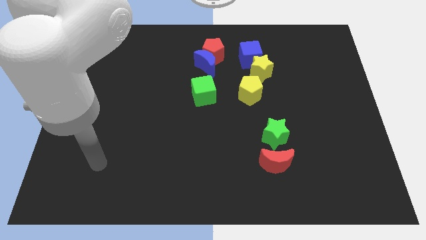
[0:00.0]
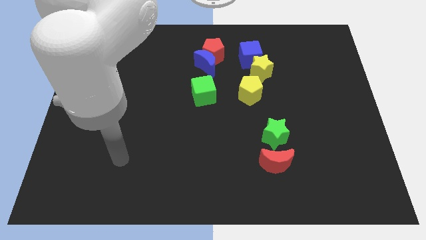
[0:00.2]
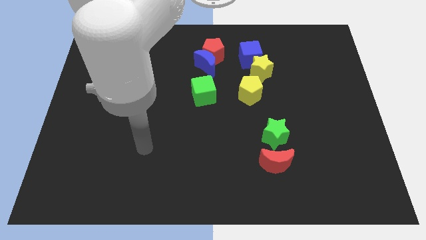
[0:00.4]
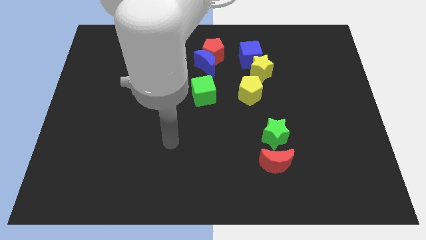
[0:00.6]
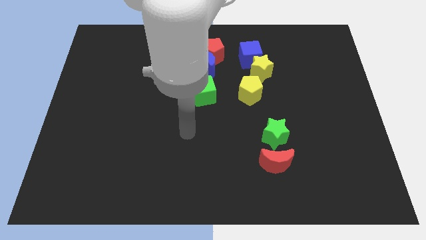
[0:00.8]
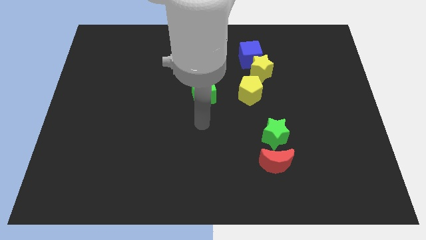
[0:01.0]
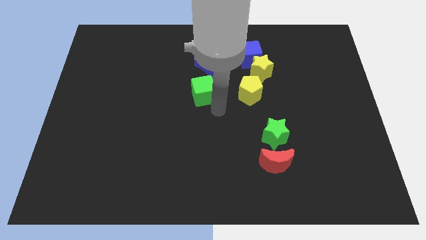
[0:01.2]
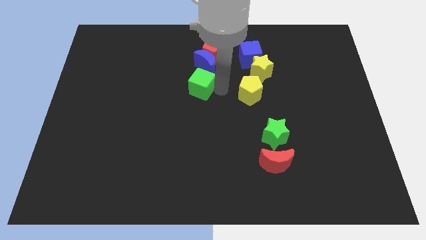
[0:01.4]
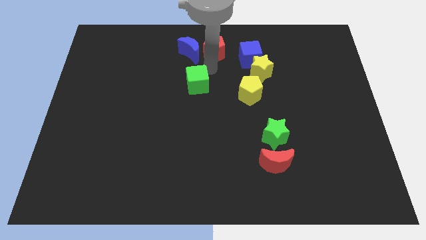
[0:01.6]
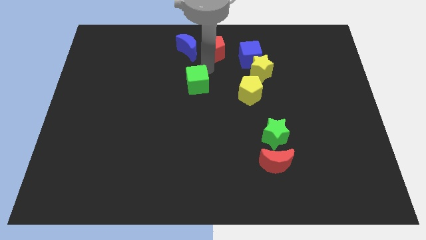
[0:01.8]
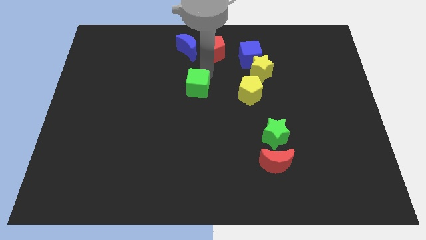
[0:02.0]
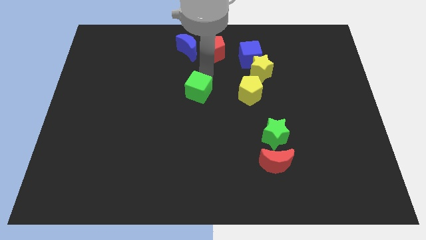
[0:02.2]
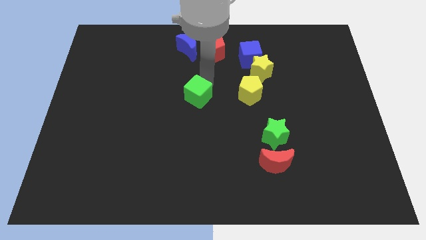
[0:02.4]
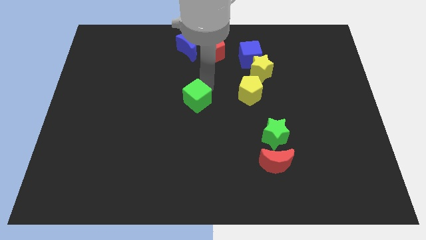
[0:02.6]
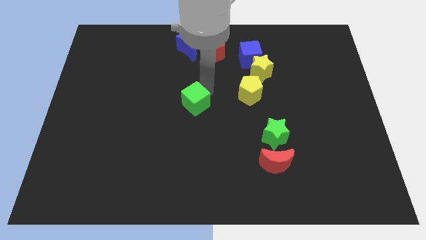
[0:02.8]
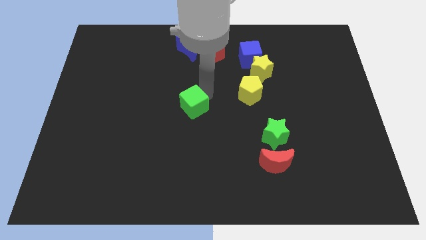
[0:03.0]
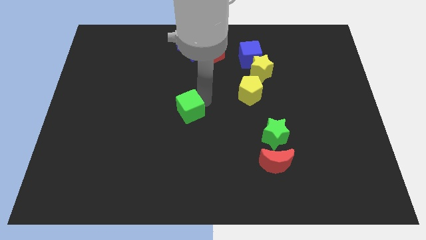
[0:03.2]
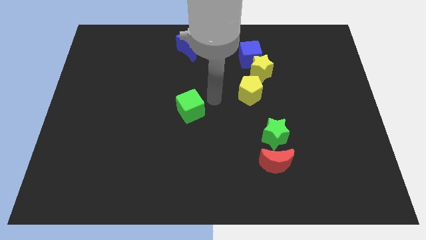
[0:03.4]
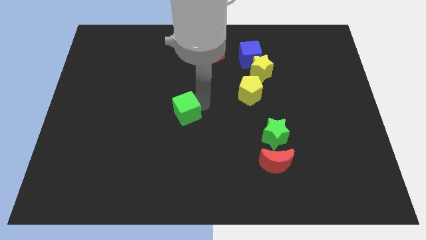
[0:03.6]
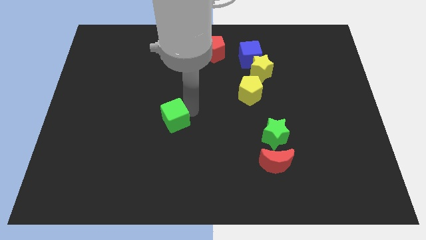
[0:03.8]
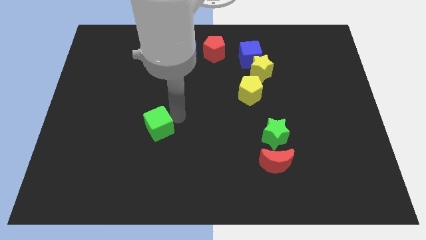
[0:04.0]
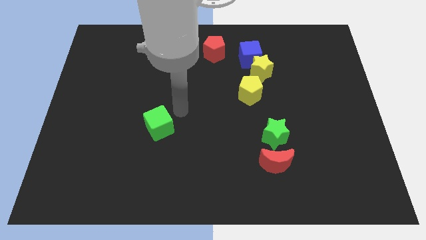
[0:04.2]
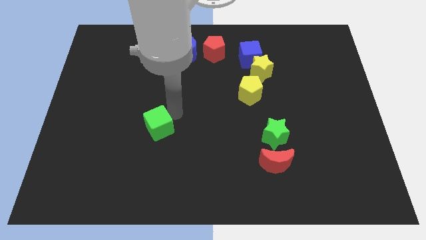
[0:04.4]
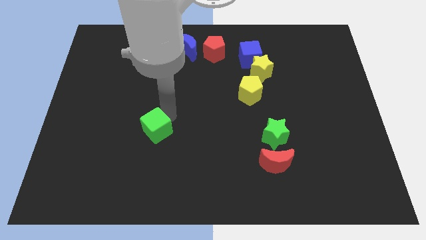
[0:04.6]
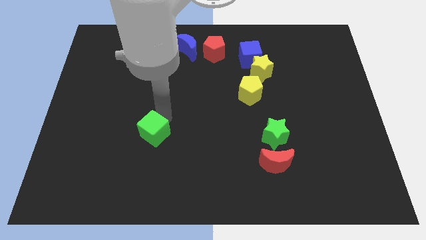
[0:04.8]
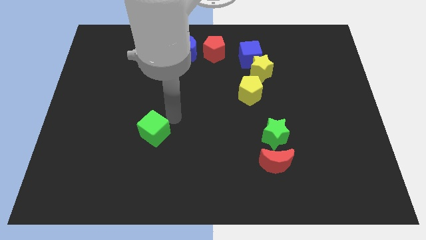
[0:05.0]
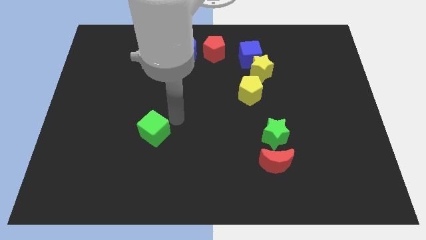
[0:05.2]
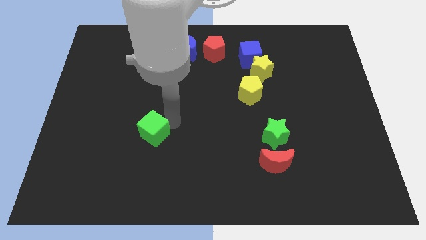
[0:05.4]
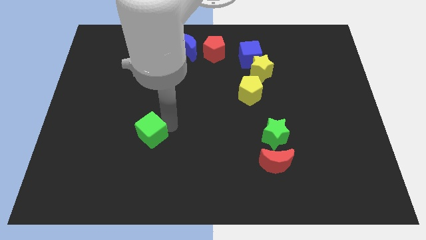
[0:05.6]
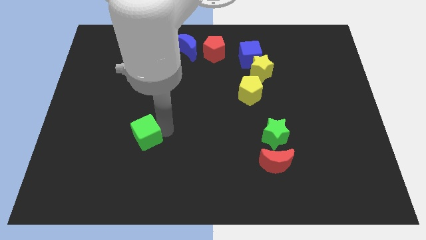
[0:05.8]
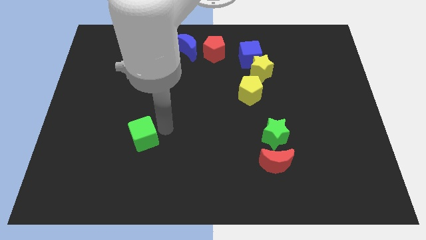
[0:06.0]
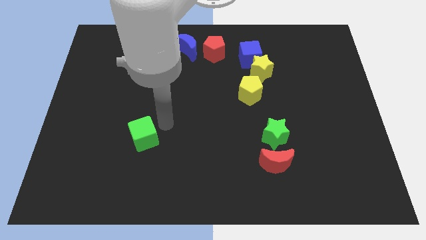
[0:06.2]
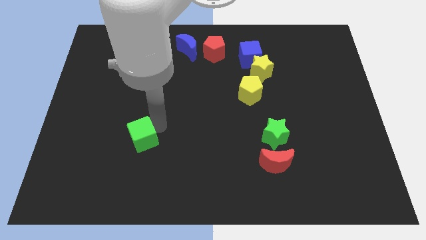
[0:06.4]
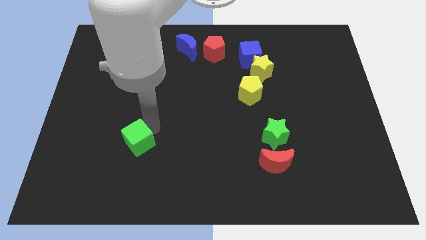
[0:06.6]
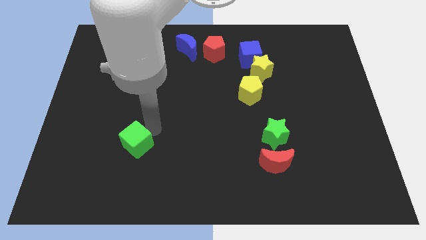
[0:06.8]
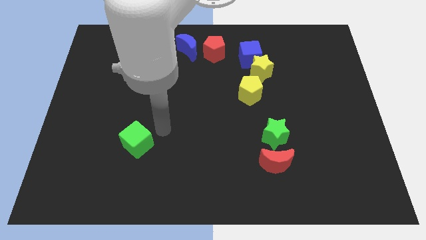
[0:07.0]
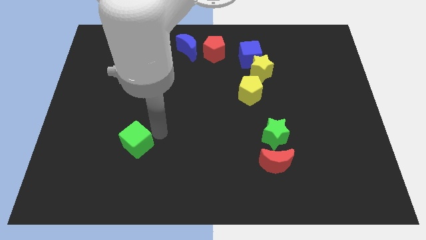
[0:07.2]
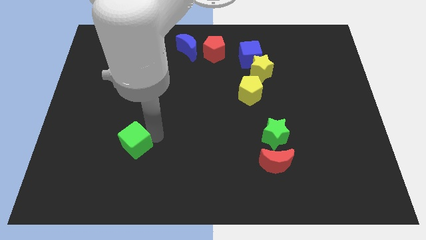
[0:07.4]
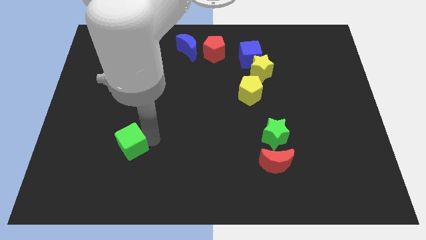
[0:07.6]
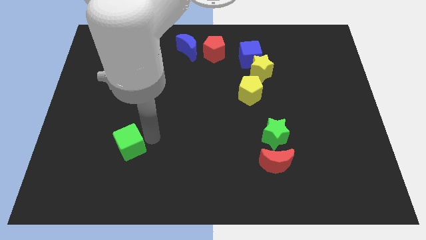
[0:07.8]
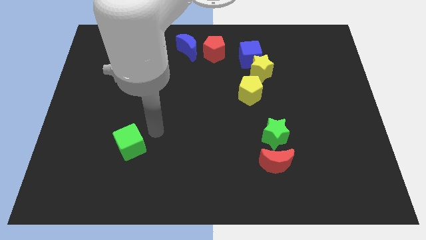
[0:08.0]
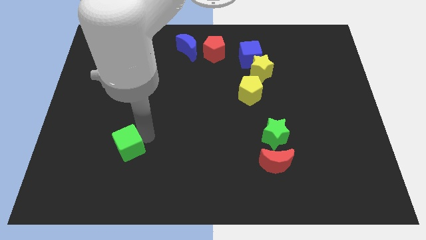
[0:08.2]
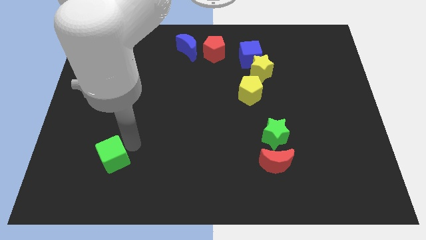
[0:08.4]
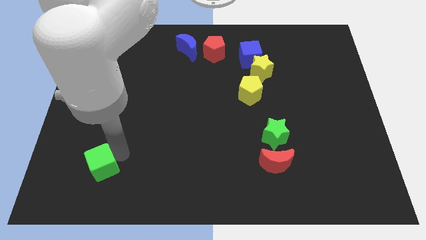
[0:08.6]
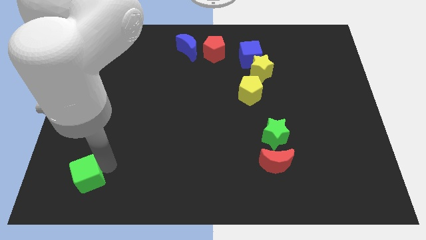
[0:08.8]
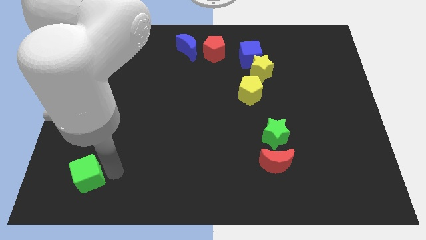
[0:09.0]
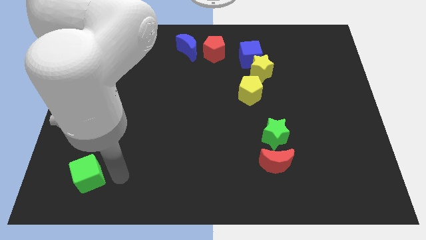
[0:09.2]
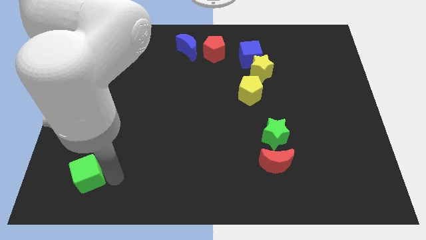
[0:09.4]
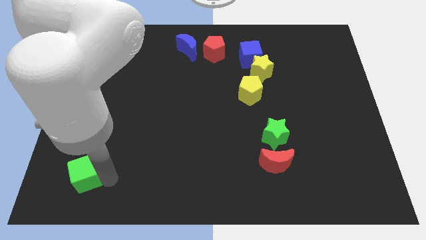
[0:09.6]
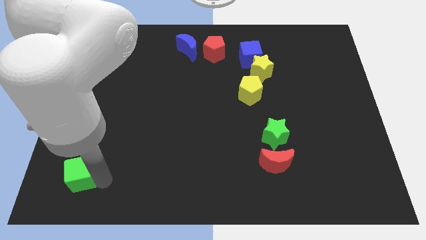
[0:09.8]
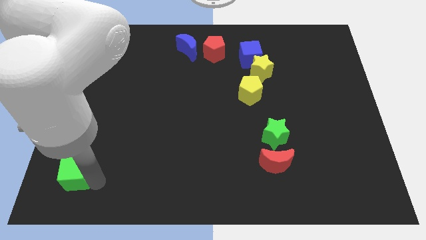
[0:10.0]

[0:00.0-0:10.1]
push the green cube to the lower left corner

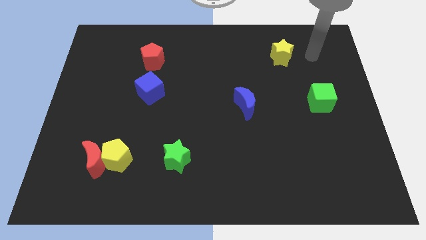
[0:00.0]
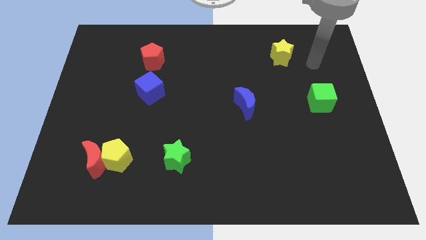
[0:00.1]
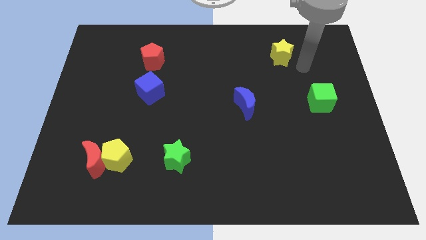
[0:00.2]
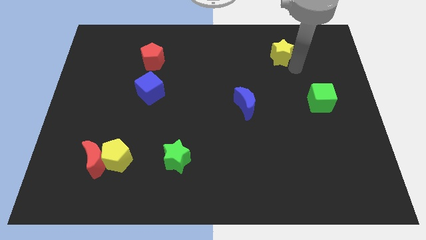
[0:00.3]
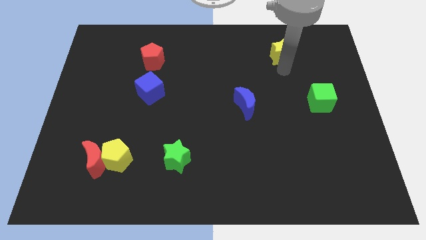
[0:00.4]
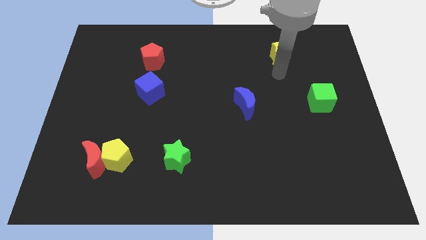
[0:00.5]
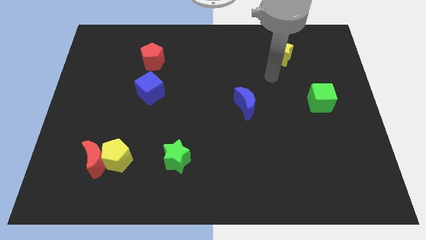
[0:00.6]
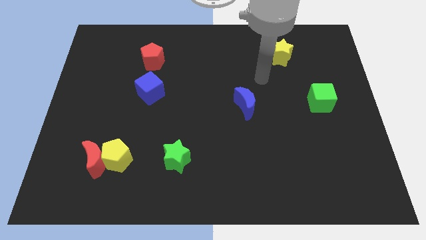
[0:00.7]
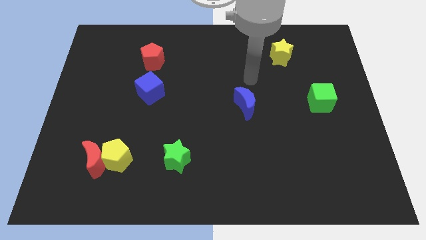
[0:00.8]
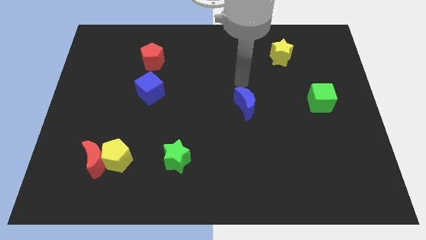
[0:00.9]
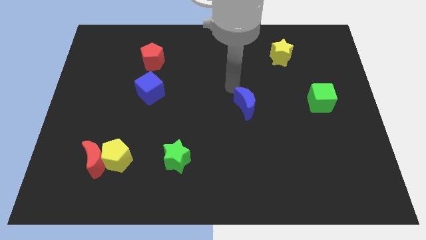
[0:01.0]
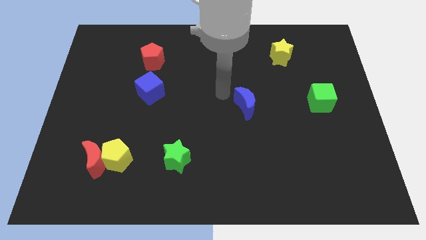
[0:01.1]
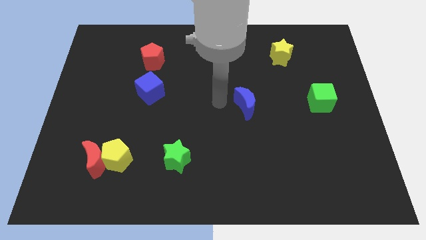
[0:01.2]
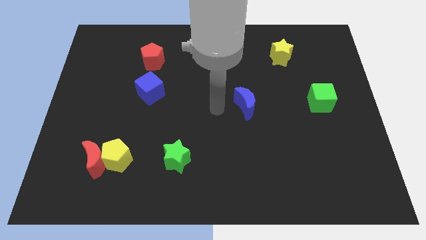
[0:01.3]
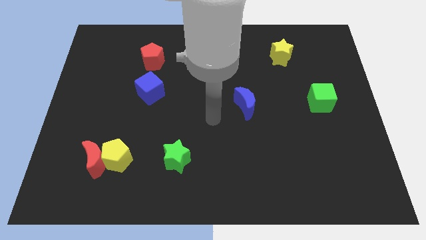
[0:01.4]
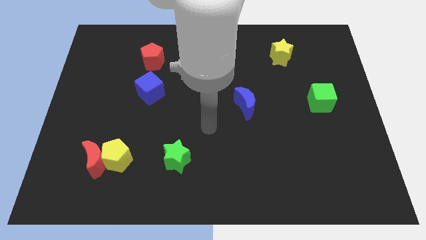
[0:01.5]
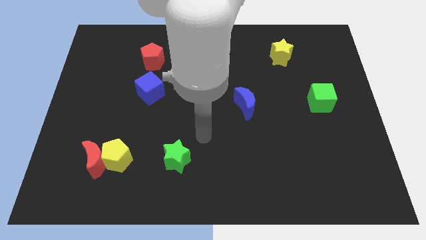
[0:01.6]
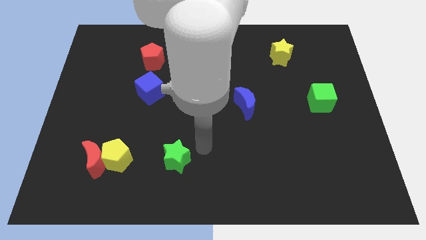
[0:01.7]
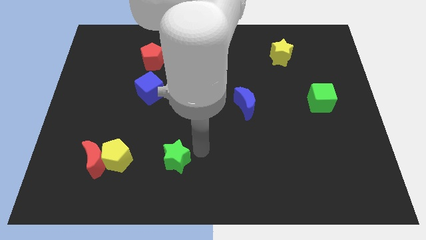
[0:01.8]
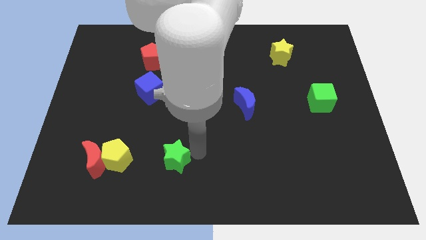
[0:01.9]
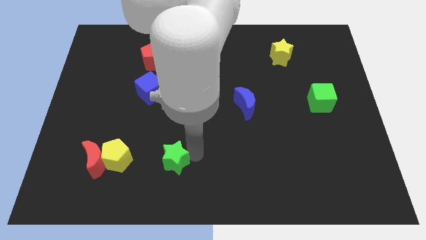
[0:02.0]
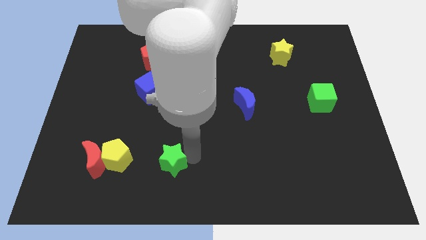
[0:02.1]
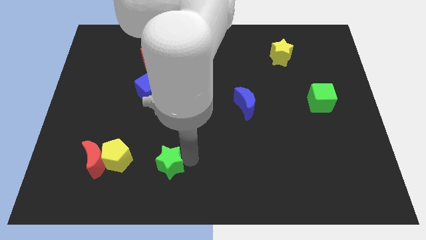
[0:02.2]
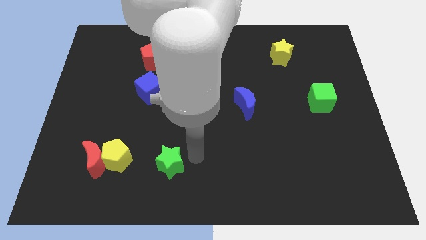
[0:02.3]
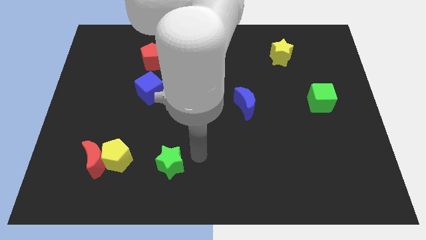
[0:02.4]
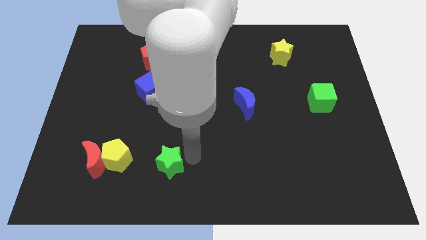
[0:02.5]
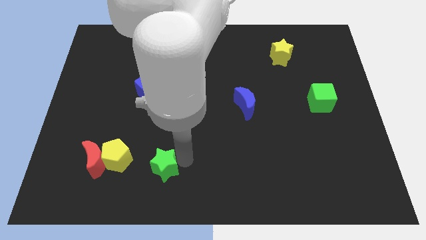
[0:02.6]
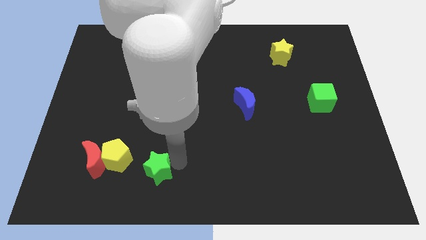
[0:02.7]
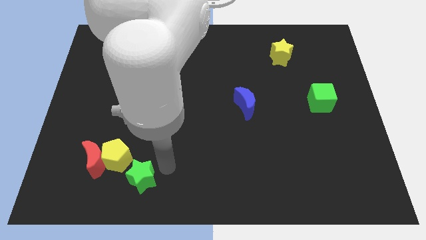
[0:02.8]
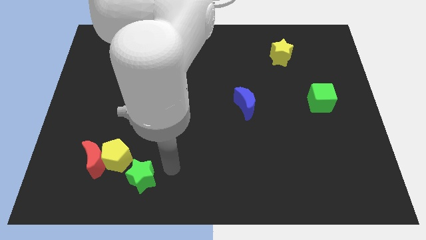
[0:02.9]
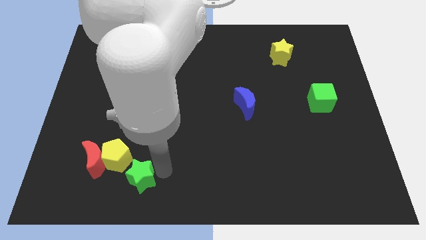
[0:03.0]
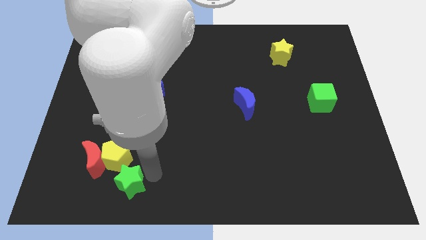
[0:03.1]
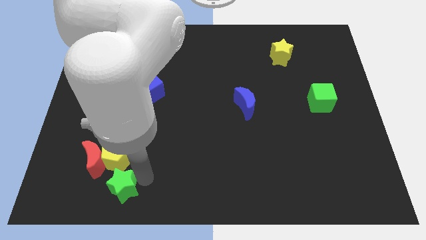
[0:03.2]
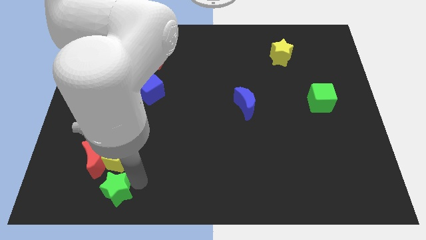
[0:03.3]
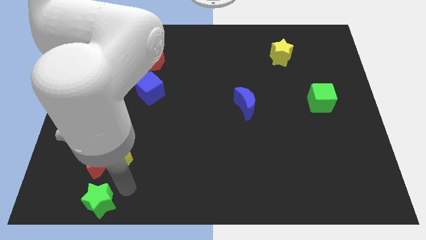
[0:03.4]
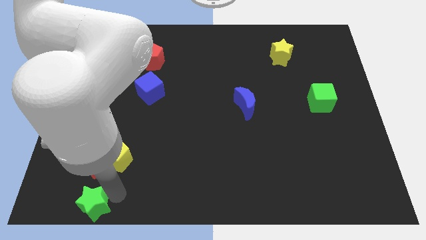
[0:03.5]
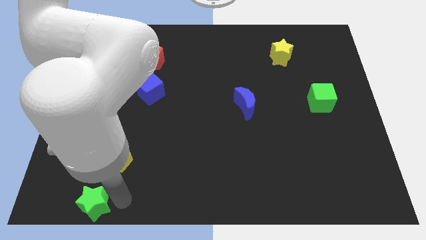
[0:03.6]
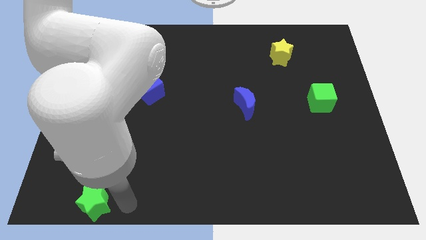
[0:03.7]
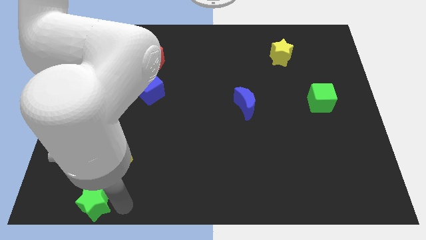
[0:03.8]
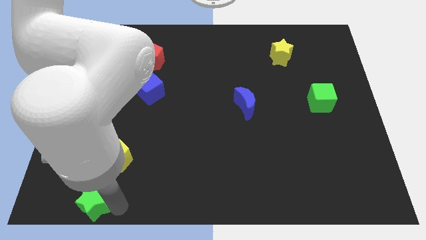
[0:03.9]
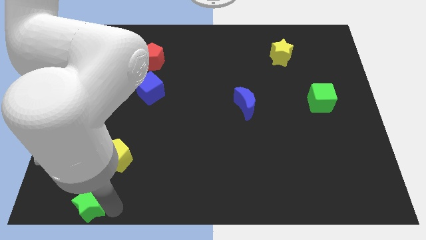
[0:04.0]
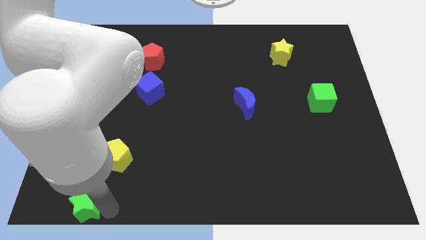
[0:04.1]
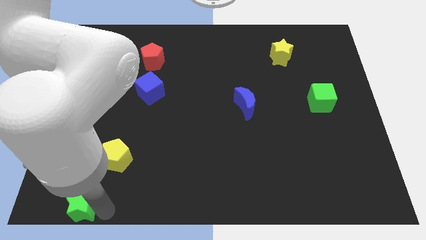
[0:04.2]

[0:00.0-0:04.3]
push the green star to the lower left corner
